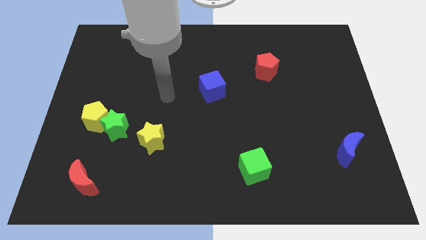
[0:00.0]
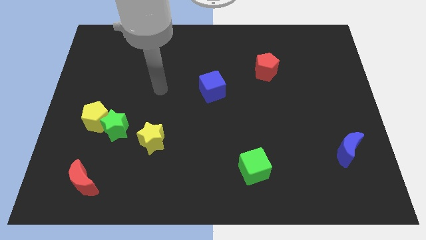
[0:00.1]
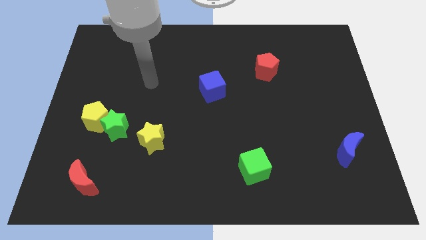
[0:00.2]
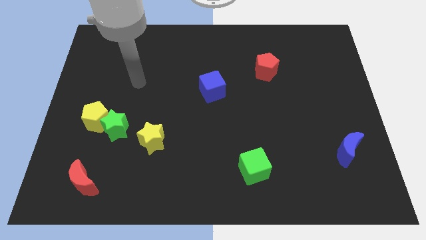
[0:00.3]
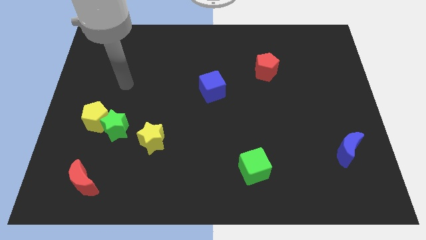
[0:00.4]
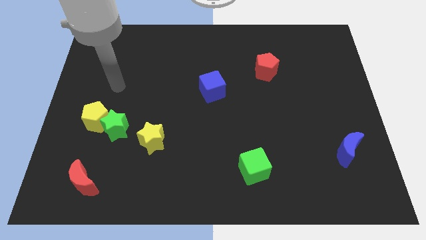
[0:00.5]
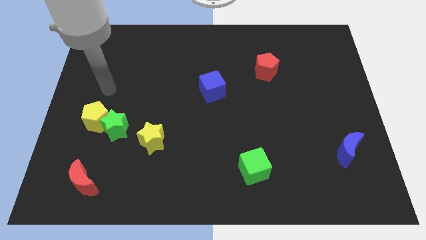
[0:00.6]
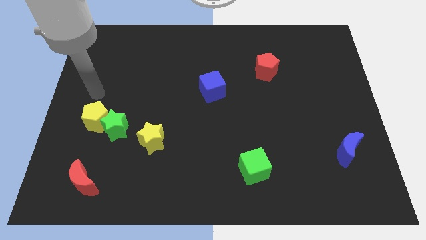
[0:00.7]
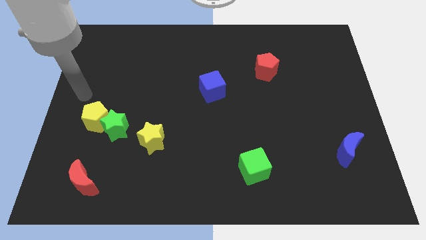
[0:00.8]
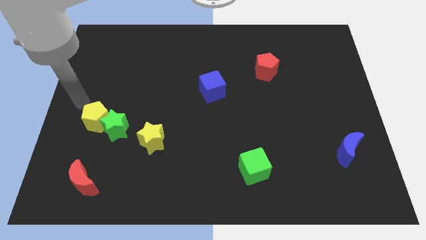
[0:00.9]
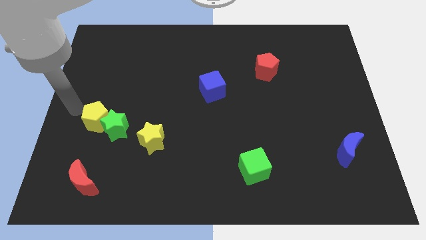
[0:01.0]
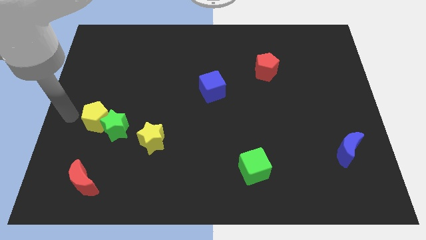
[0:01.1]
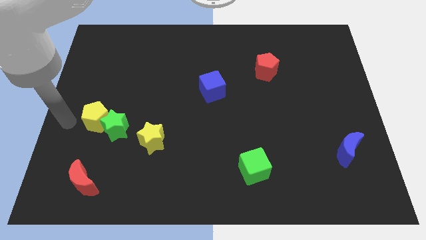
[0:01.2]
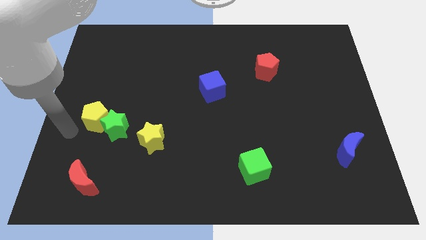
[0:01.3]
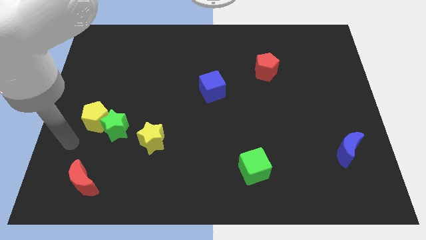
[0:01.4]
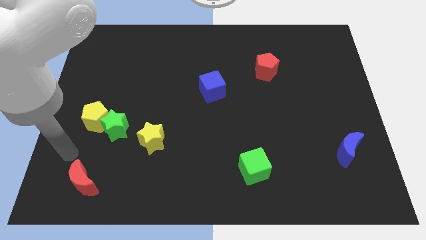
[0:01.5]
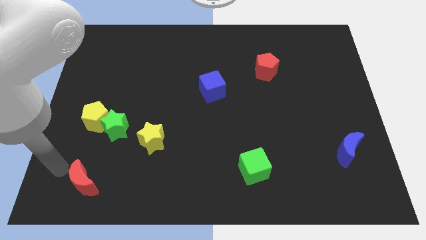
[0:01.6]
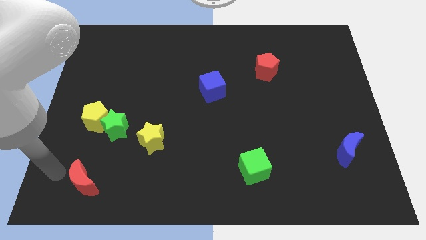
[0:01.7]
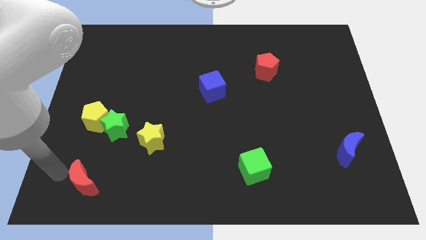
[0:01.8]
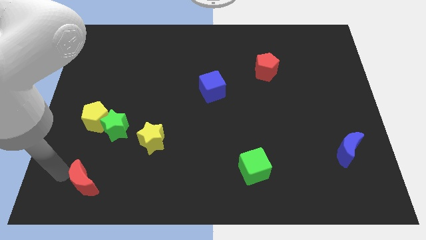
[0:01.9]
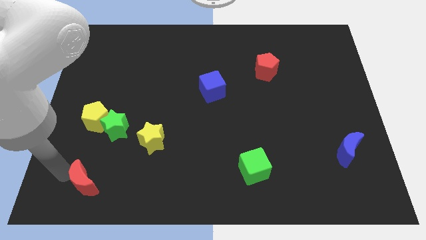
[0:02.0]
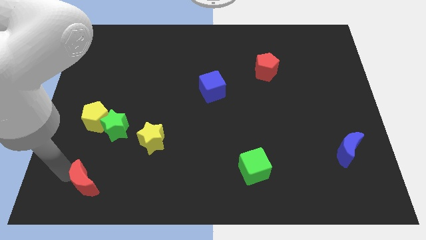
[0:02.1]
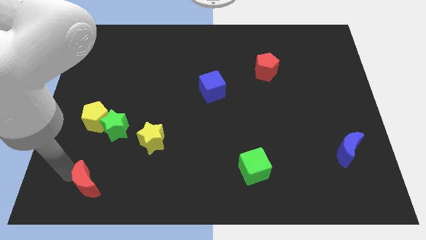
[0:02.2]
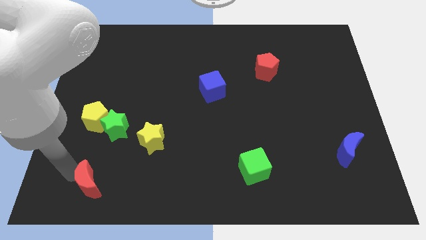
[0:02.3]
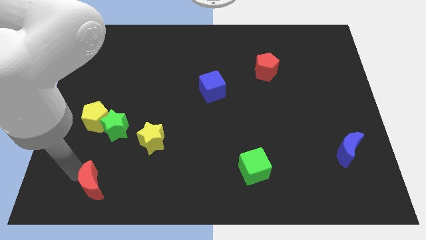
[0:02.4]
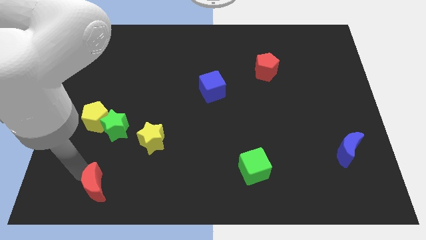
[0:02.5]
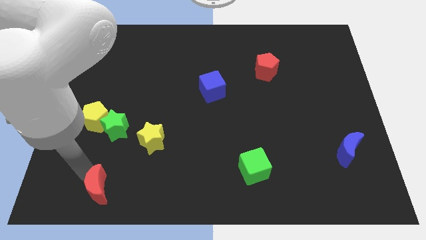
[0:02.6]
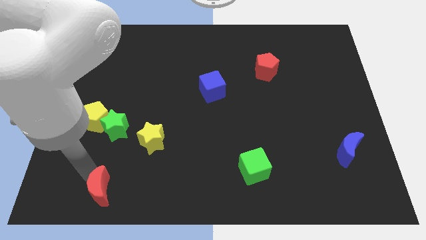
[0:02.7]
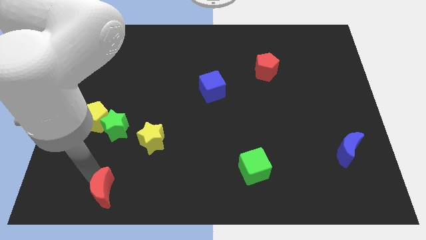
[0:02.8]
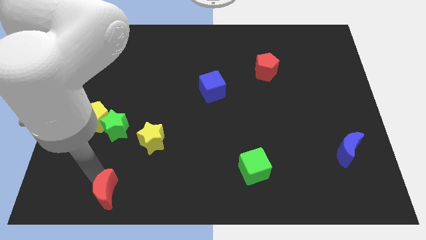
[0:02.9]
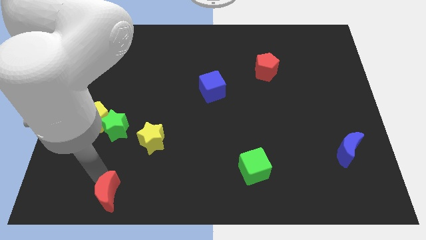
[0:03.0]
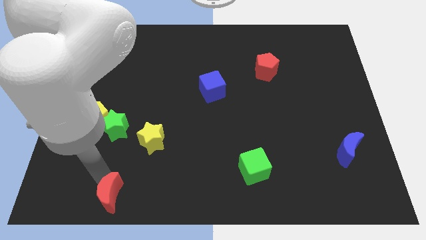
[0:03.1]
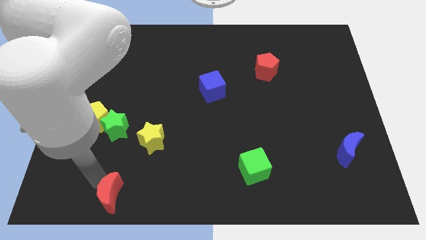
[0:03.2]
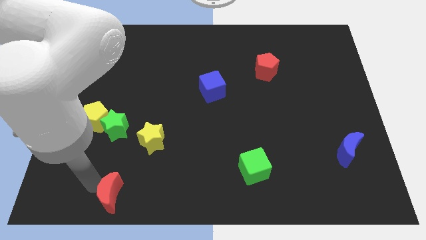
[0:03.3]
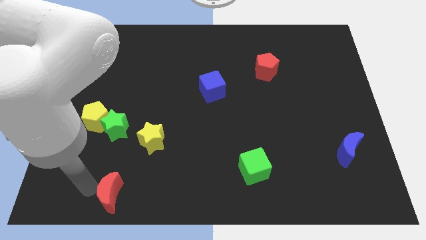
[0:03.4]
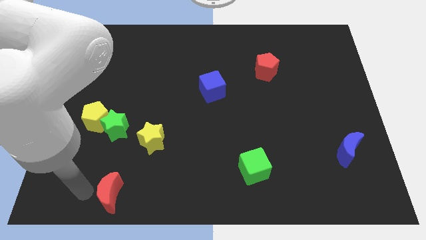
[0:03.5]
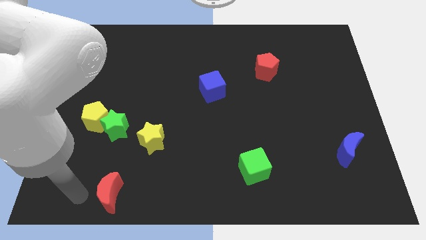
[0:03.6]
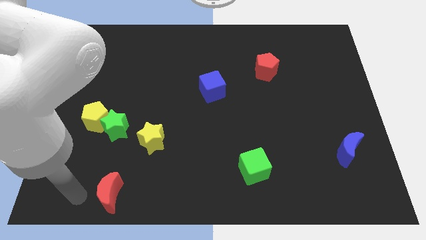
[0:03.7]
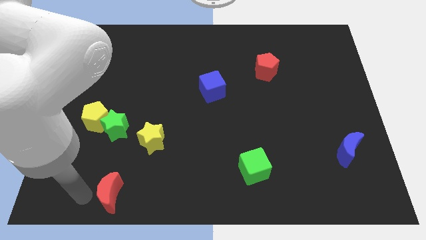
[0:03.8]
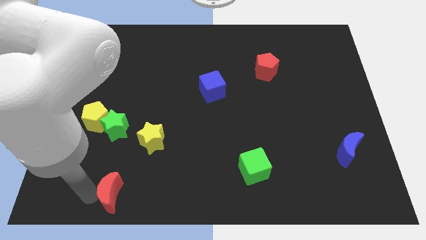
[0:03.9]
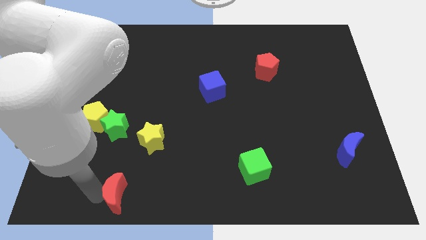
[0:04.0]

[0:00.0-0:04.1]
slightly push the red moon to the right

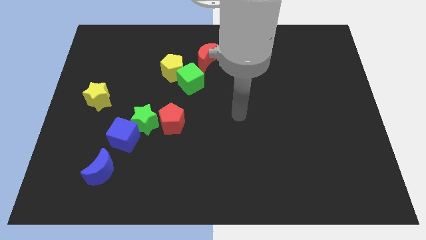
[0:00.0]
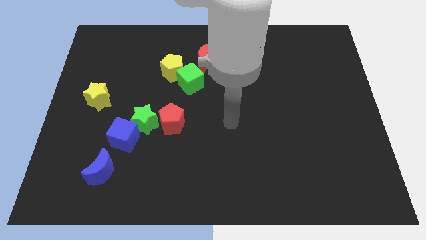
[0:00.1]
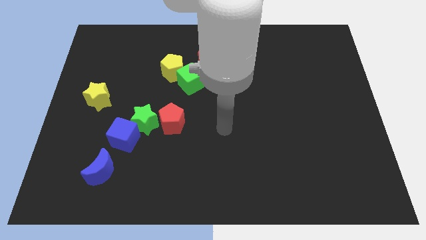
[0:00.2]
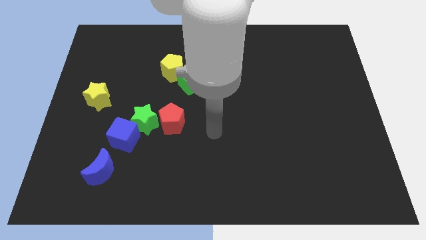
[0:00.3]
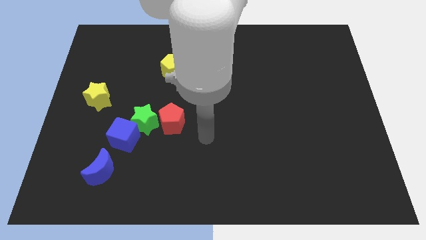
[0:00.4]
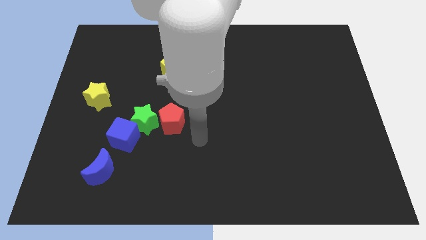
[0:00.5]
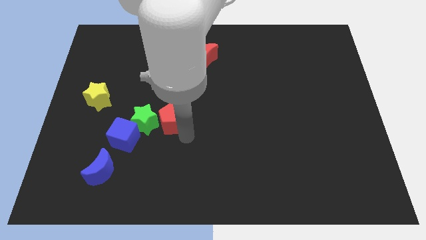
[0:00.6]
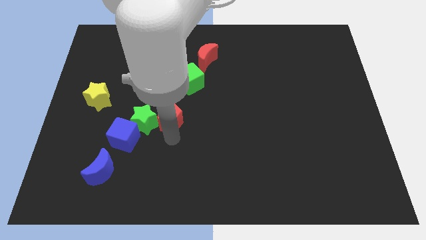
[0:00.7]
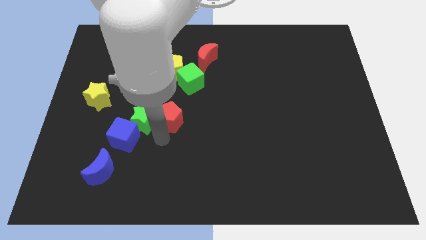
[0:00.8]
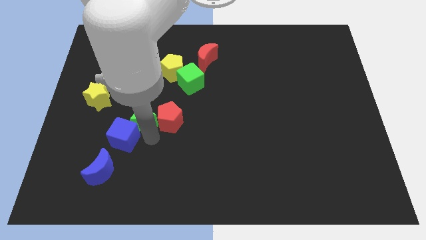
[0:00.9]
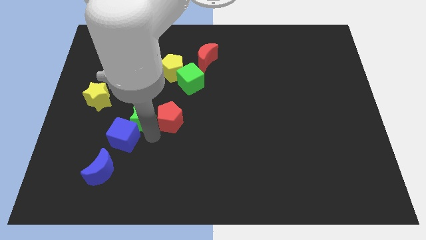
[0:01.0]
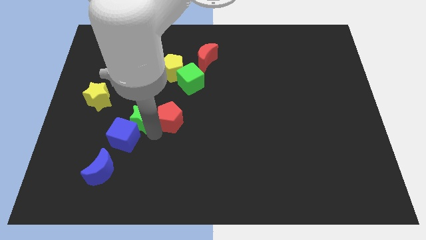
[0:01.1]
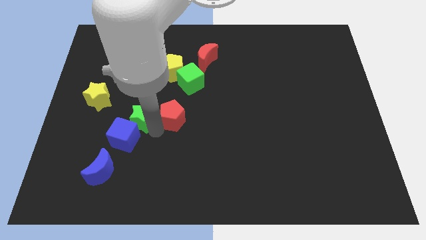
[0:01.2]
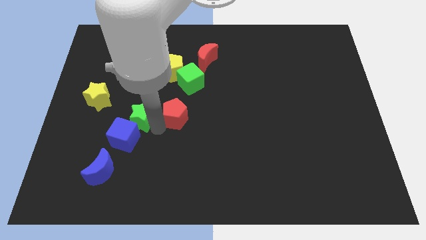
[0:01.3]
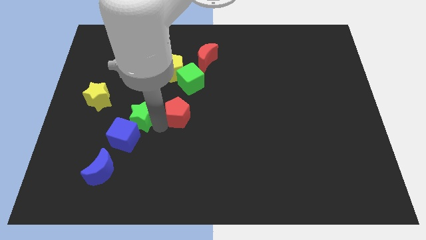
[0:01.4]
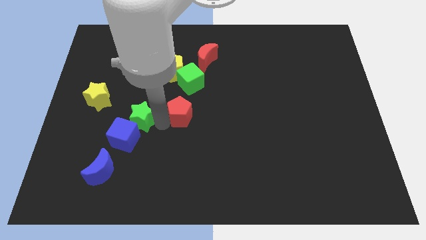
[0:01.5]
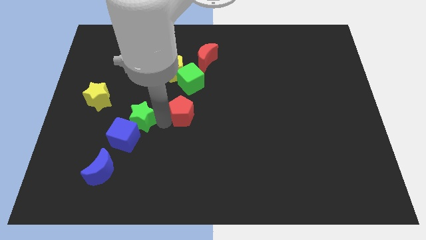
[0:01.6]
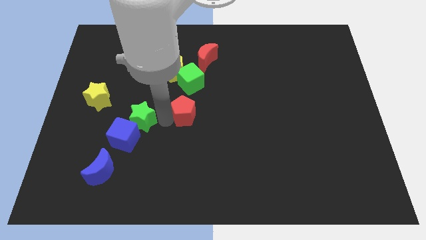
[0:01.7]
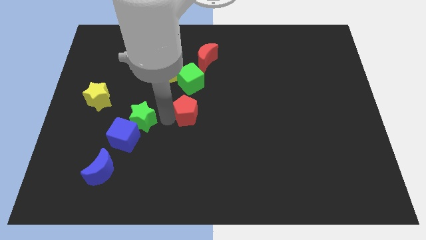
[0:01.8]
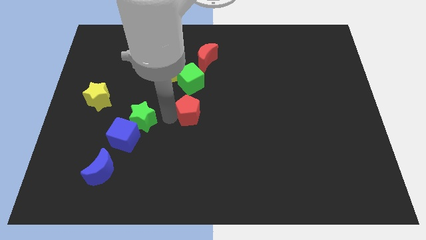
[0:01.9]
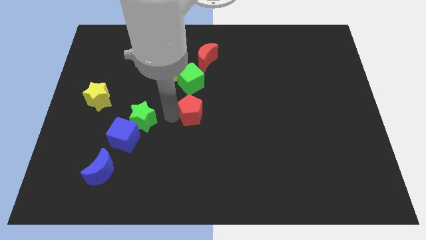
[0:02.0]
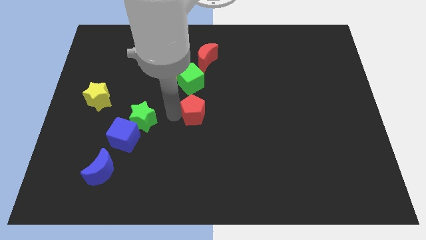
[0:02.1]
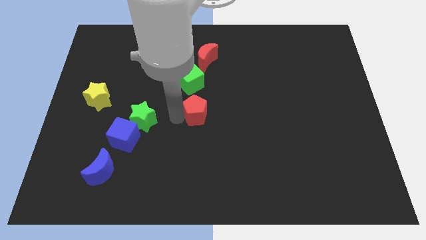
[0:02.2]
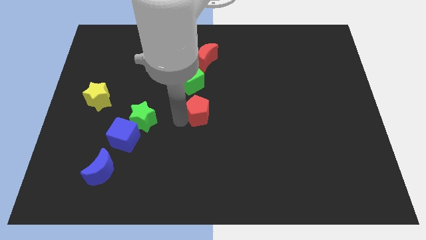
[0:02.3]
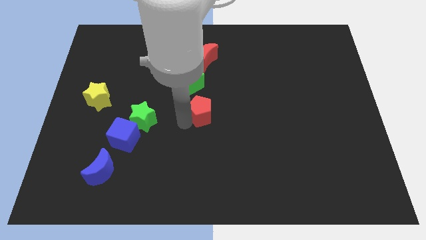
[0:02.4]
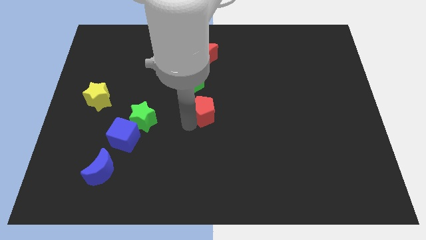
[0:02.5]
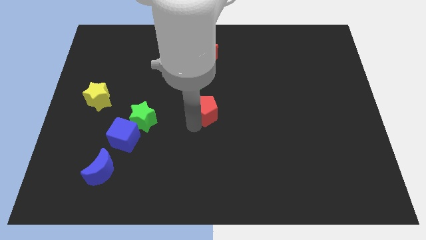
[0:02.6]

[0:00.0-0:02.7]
slide the red pentagon upwards and to the right a little bit

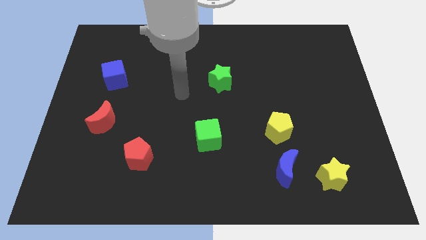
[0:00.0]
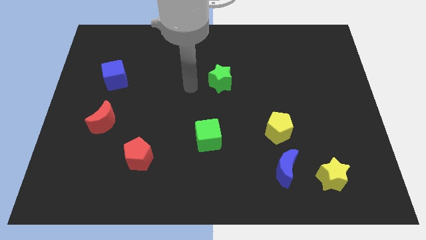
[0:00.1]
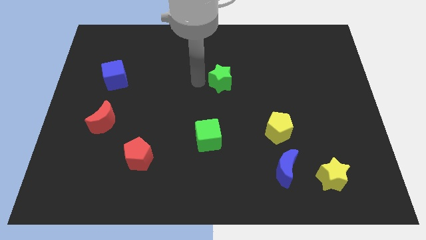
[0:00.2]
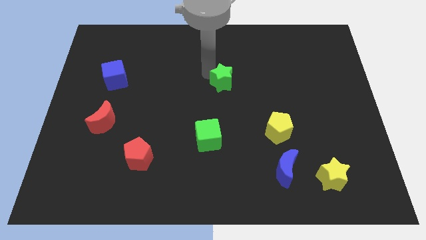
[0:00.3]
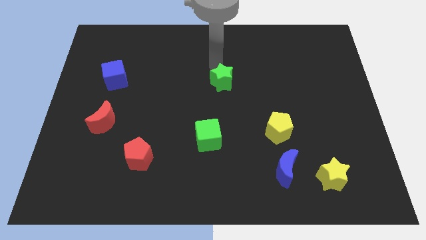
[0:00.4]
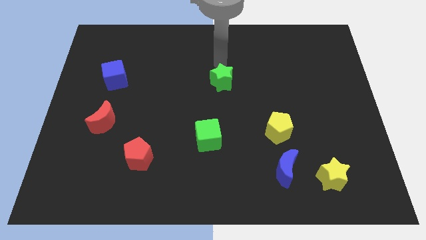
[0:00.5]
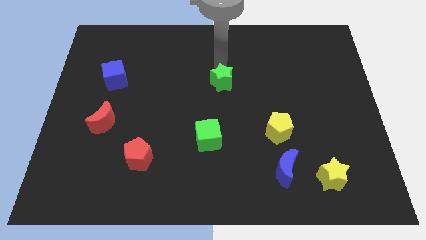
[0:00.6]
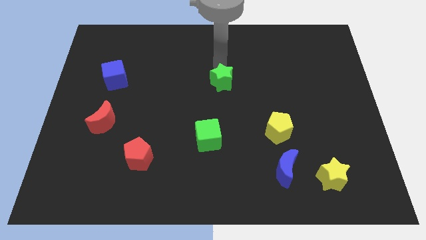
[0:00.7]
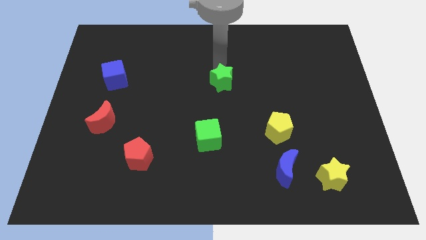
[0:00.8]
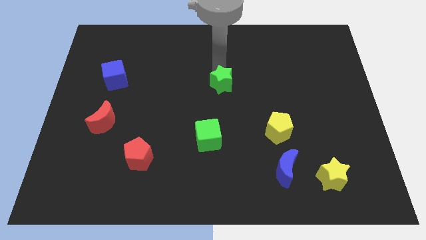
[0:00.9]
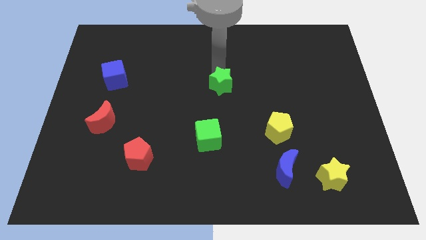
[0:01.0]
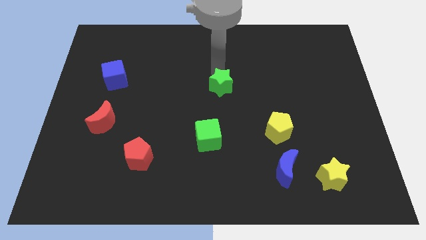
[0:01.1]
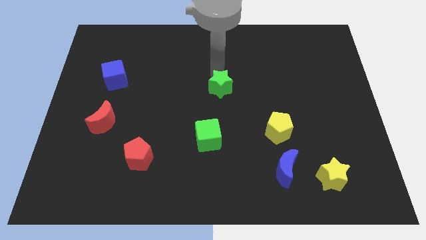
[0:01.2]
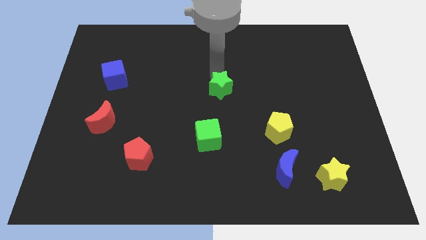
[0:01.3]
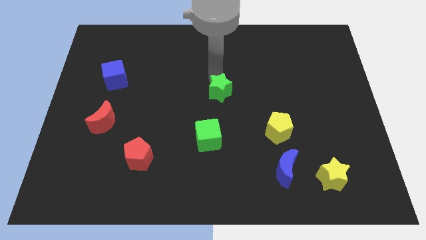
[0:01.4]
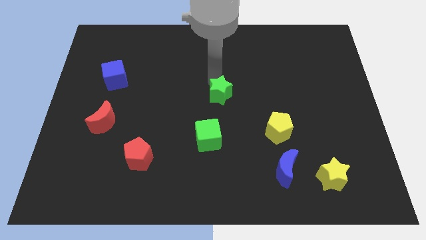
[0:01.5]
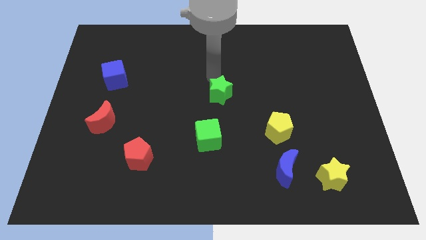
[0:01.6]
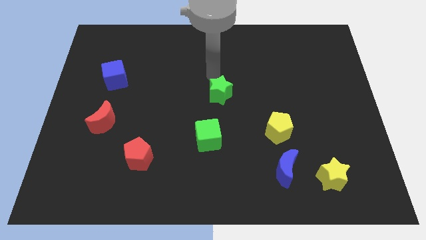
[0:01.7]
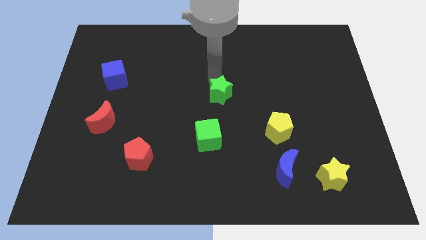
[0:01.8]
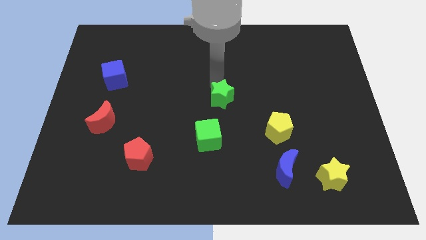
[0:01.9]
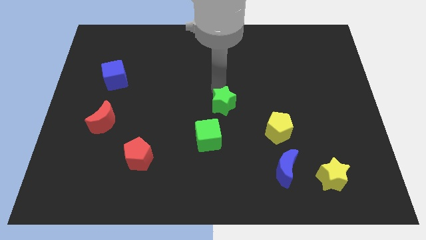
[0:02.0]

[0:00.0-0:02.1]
slide the green star down a little bit
